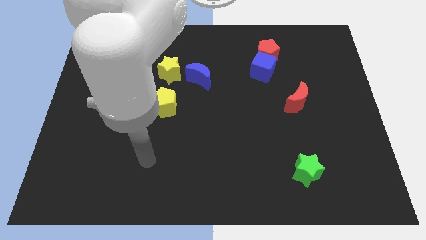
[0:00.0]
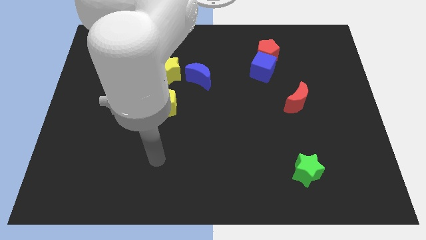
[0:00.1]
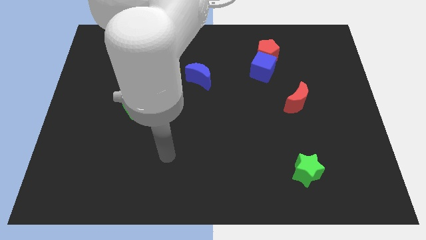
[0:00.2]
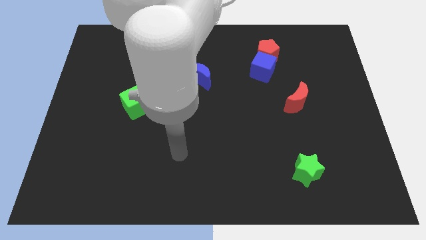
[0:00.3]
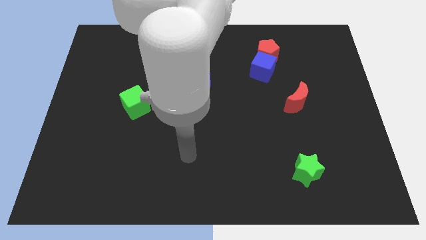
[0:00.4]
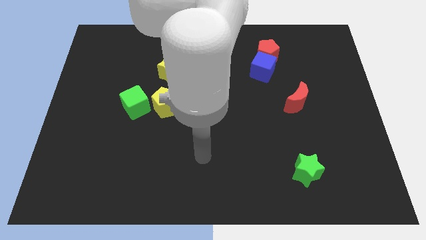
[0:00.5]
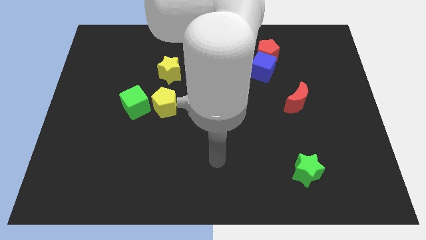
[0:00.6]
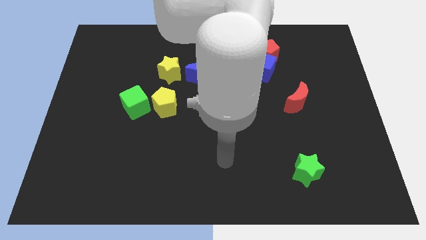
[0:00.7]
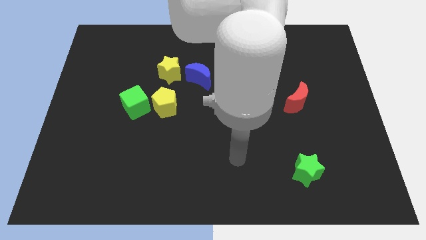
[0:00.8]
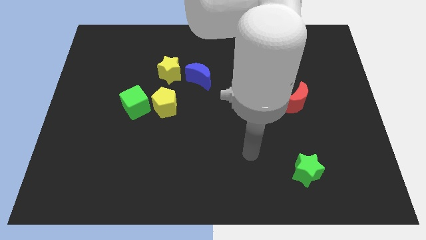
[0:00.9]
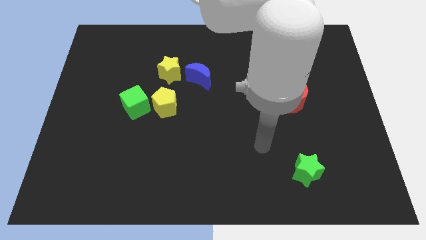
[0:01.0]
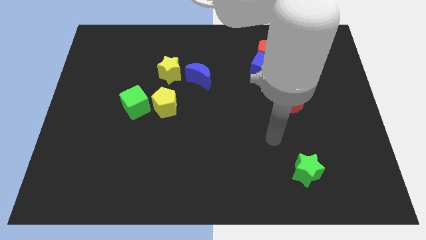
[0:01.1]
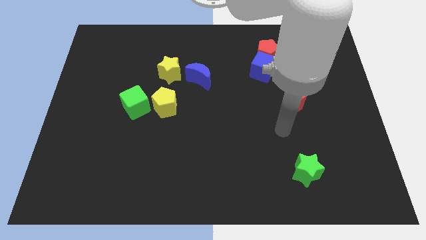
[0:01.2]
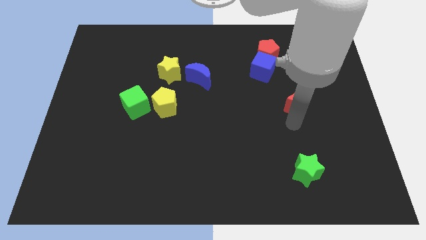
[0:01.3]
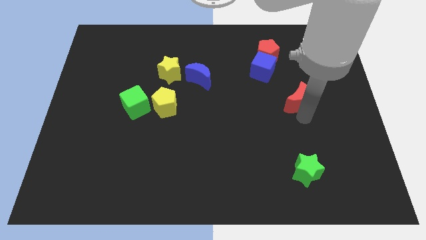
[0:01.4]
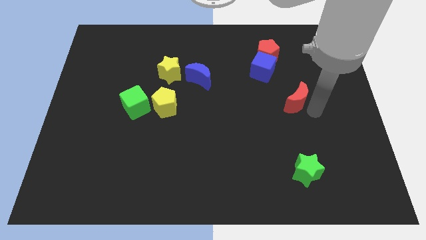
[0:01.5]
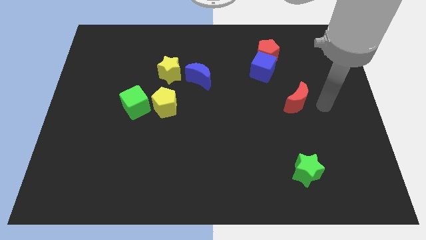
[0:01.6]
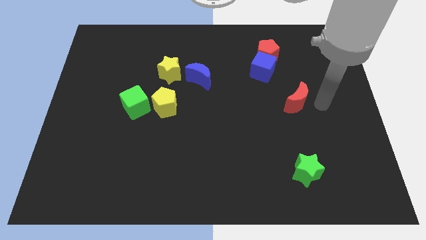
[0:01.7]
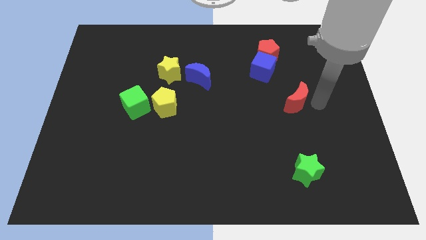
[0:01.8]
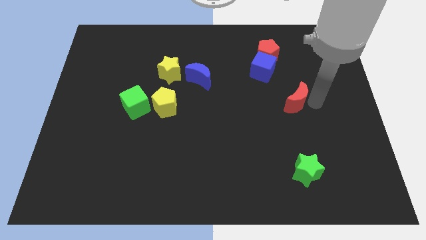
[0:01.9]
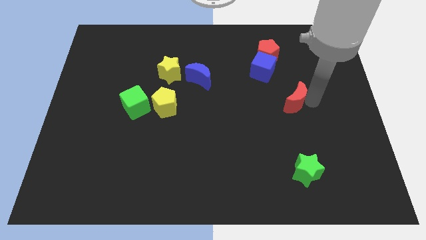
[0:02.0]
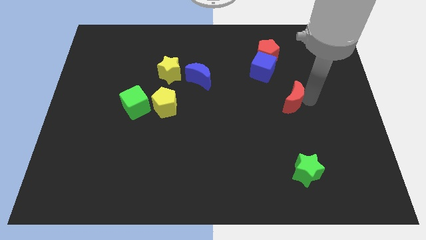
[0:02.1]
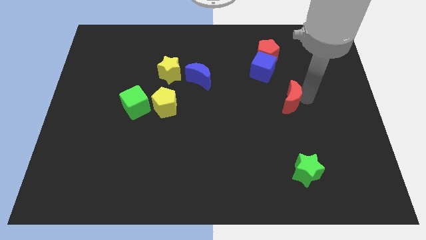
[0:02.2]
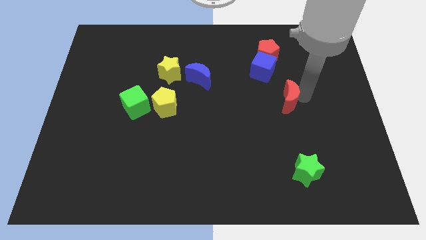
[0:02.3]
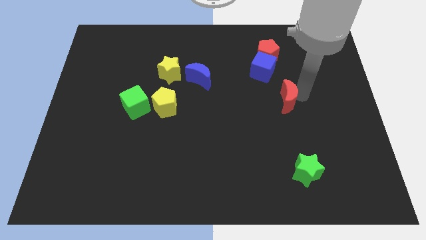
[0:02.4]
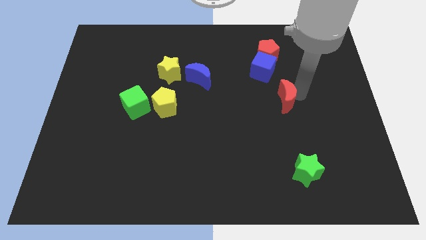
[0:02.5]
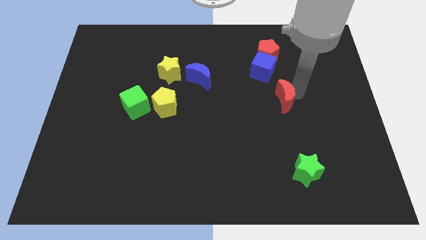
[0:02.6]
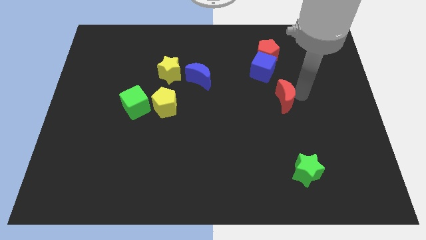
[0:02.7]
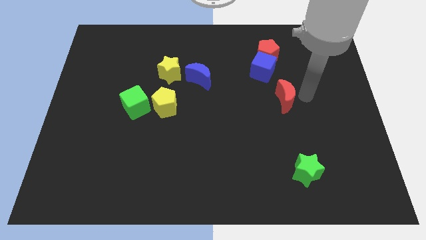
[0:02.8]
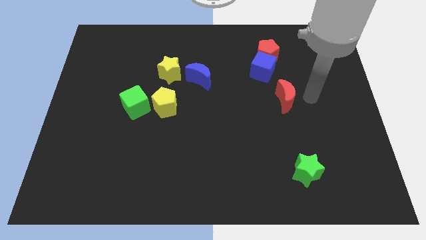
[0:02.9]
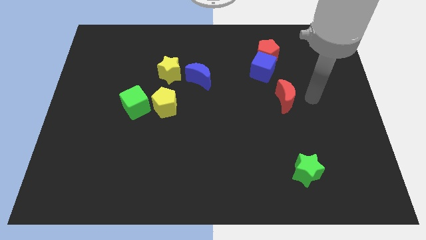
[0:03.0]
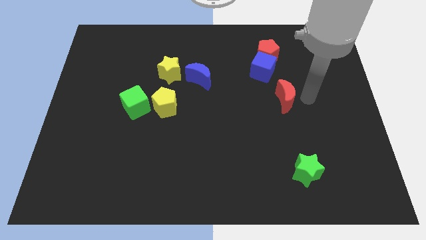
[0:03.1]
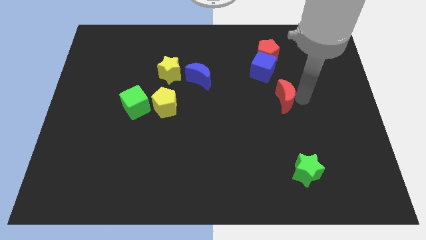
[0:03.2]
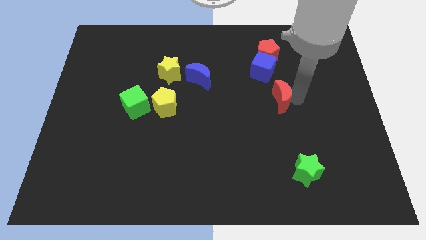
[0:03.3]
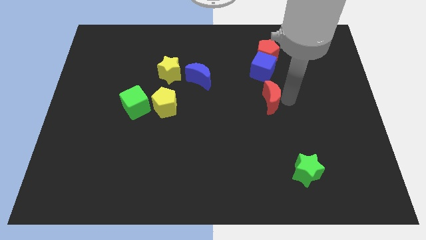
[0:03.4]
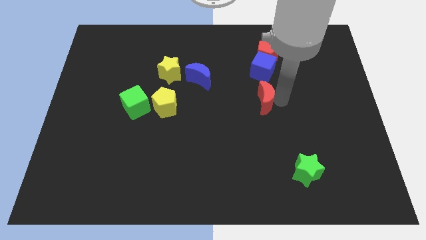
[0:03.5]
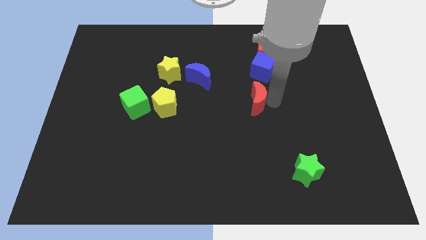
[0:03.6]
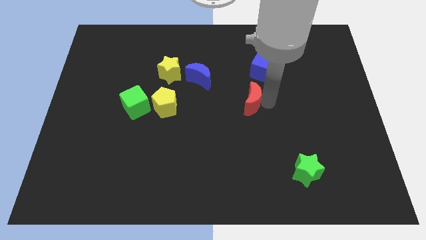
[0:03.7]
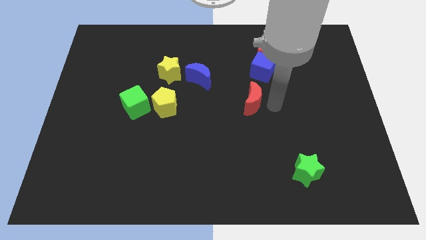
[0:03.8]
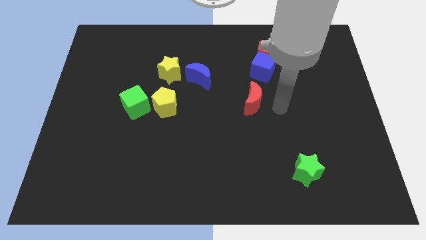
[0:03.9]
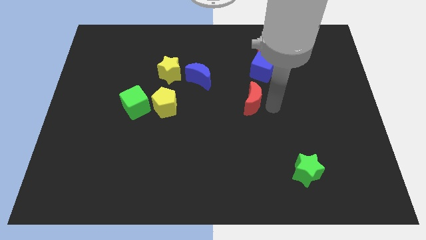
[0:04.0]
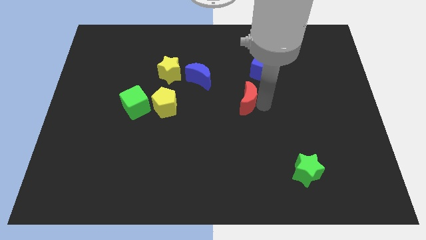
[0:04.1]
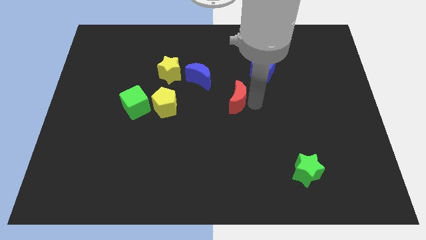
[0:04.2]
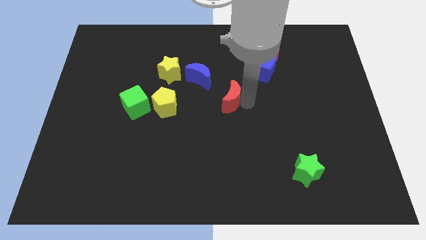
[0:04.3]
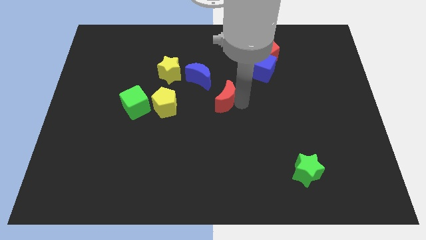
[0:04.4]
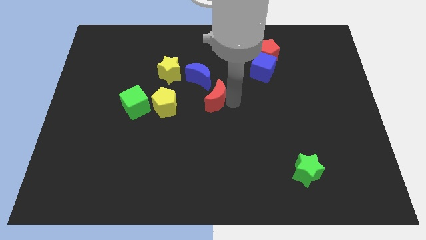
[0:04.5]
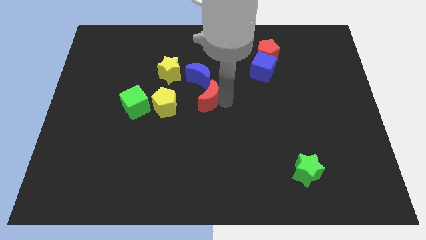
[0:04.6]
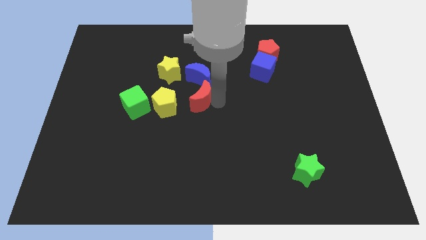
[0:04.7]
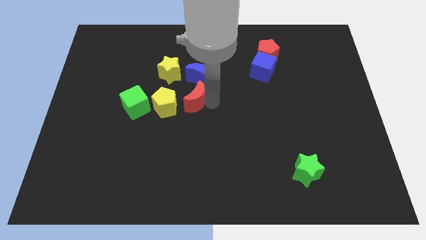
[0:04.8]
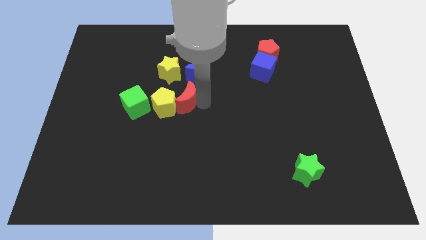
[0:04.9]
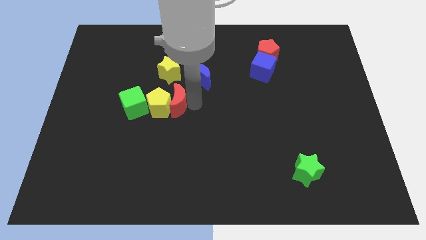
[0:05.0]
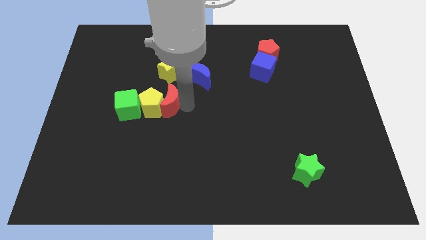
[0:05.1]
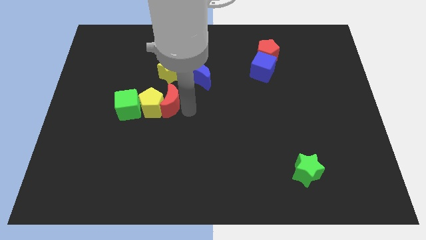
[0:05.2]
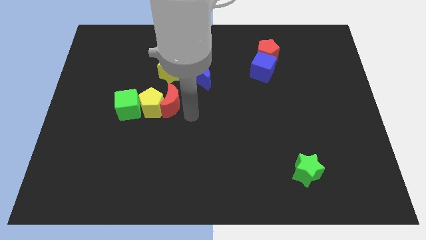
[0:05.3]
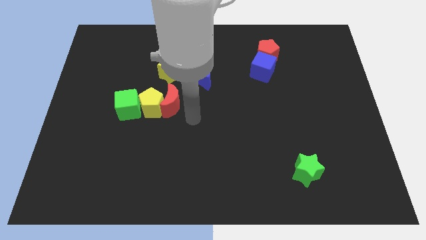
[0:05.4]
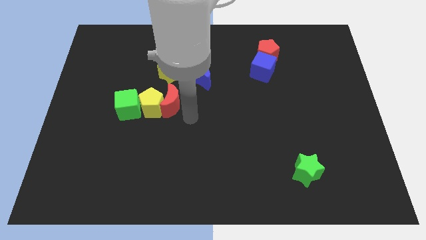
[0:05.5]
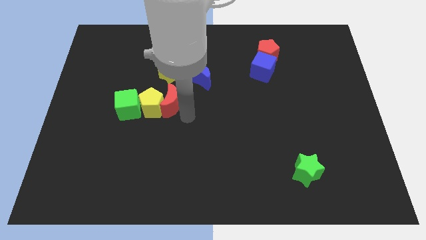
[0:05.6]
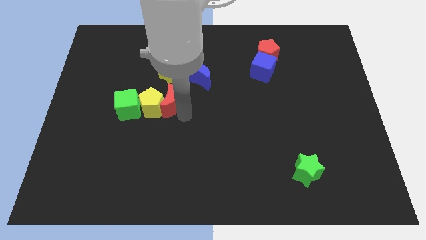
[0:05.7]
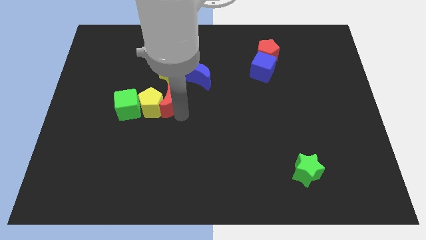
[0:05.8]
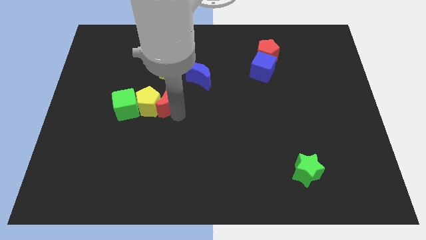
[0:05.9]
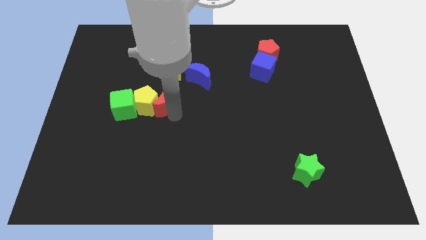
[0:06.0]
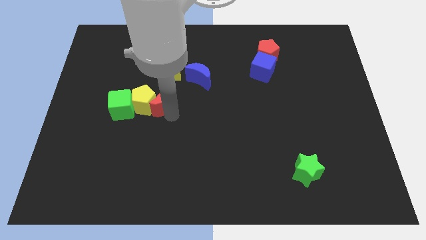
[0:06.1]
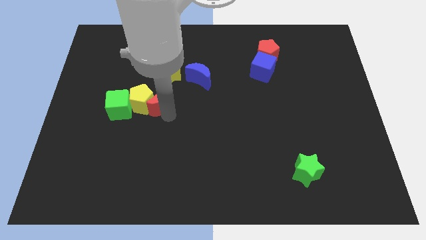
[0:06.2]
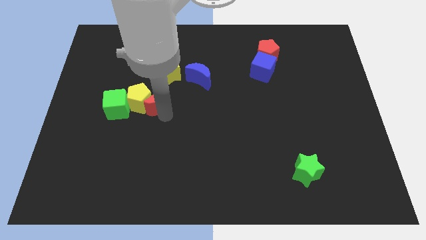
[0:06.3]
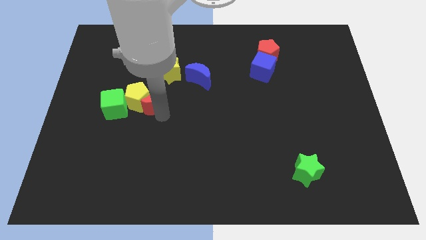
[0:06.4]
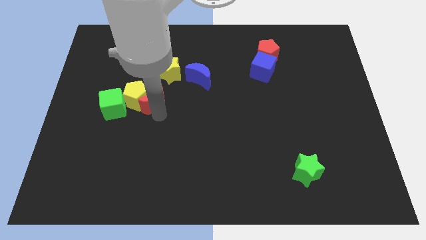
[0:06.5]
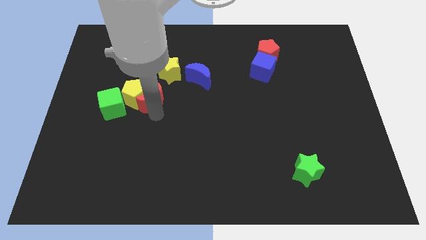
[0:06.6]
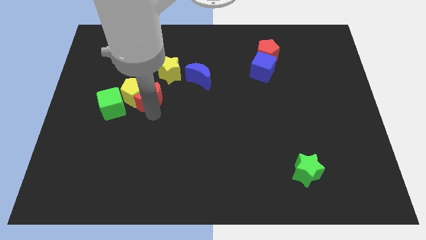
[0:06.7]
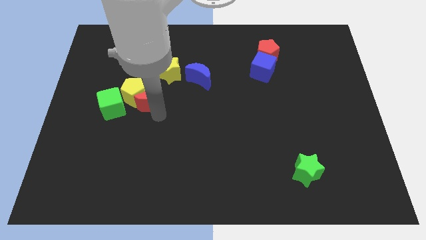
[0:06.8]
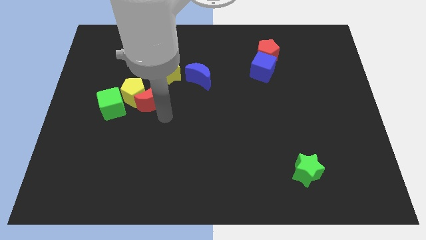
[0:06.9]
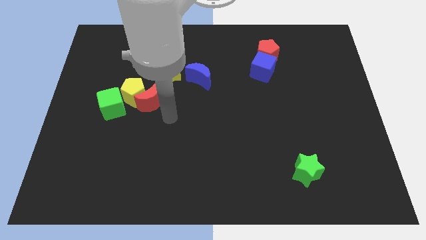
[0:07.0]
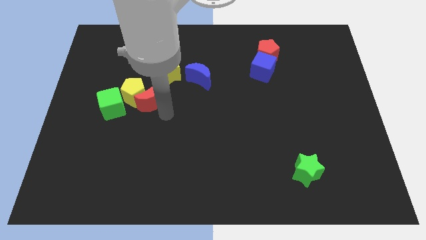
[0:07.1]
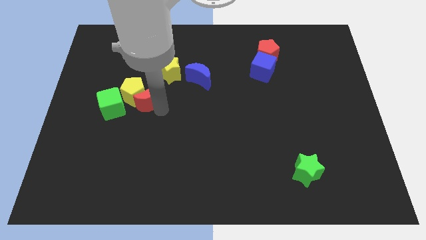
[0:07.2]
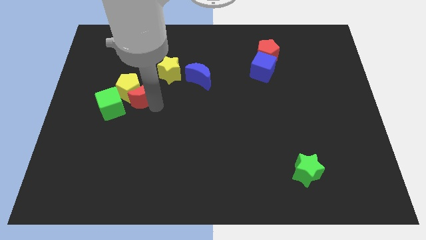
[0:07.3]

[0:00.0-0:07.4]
move the red moon to the top right of the green cube

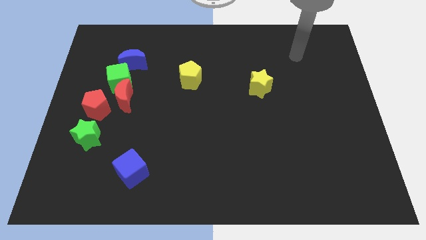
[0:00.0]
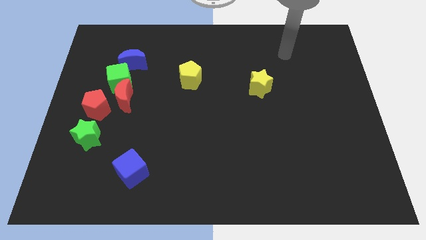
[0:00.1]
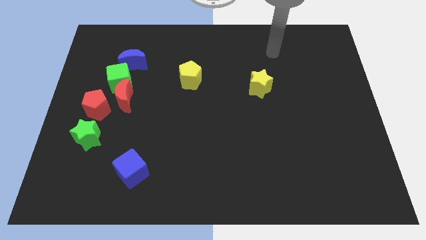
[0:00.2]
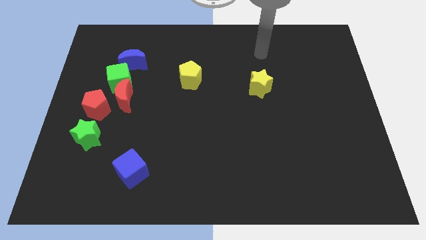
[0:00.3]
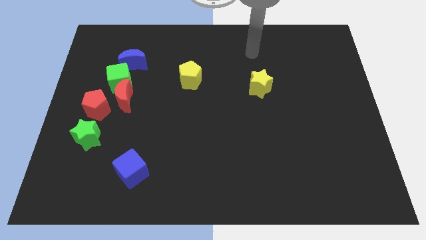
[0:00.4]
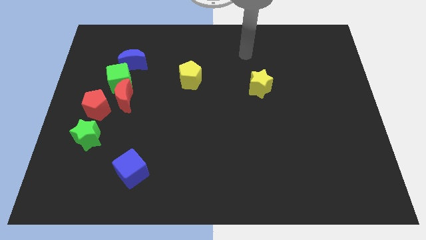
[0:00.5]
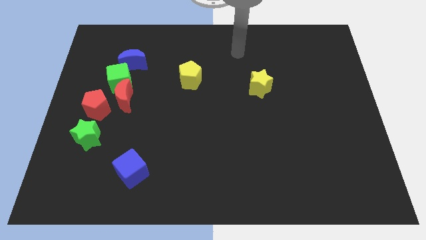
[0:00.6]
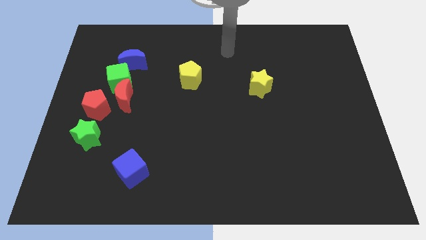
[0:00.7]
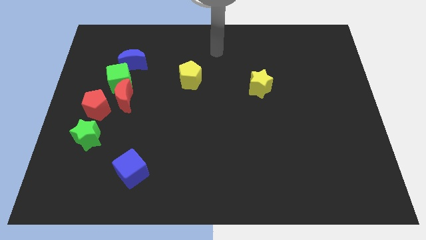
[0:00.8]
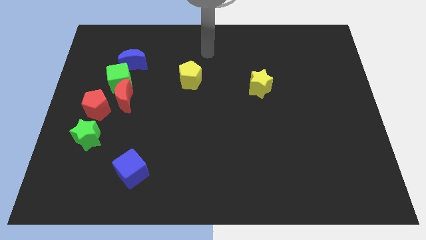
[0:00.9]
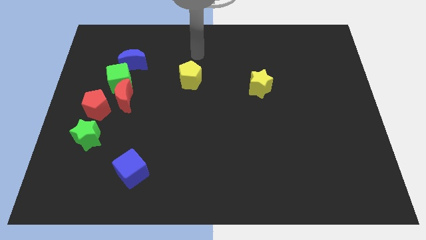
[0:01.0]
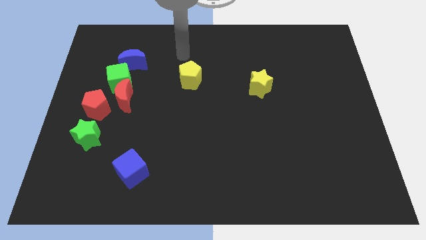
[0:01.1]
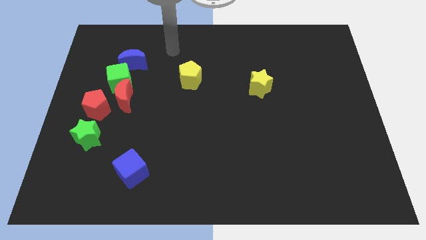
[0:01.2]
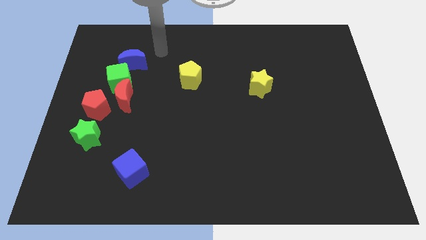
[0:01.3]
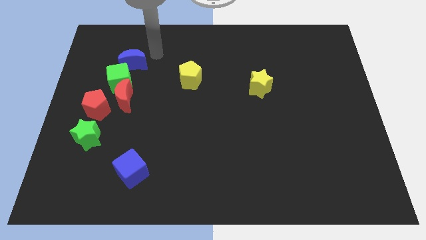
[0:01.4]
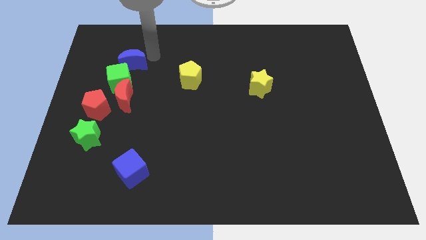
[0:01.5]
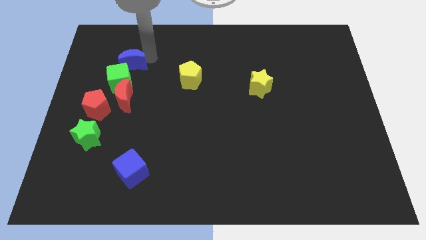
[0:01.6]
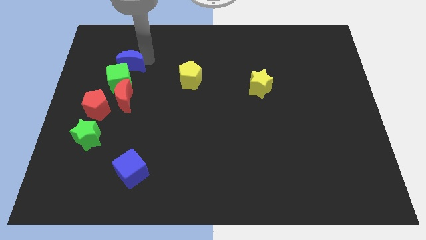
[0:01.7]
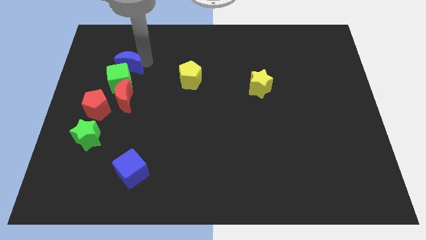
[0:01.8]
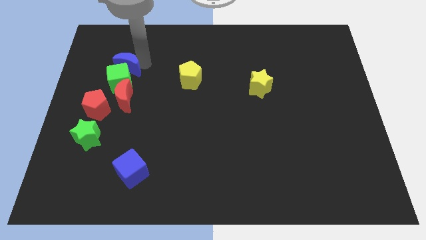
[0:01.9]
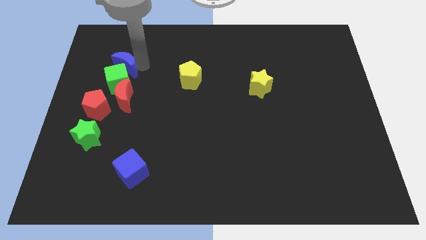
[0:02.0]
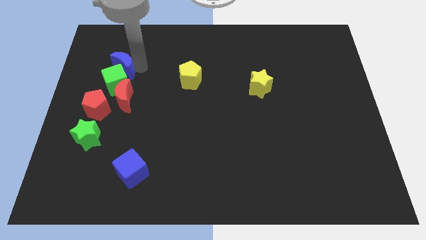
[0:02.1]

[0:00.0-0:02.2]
slide the blue moon to the top of the red pentagon
